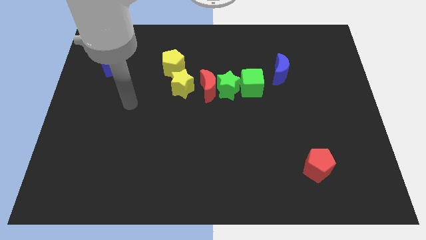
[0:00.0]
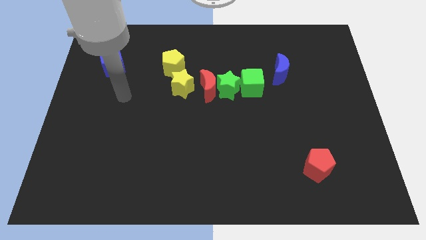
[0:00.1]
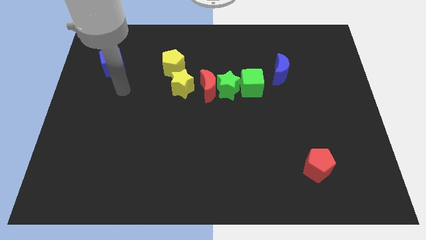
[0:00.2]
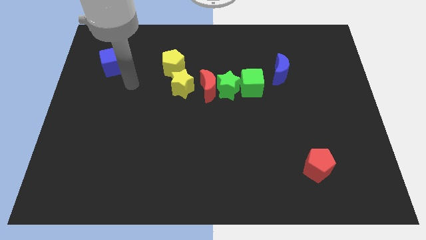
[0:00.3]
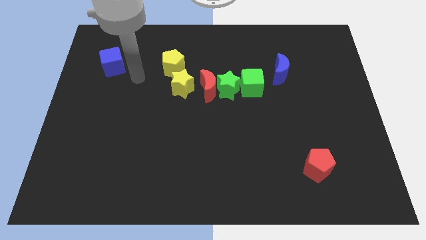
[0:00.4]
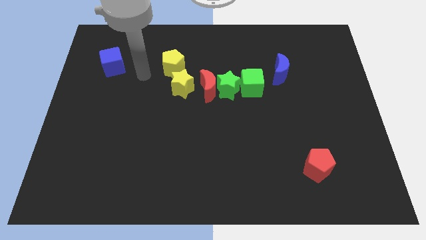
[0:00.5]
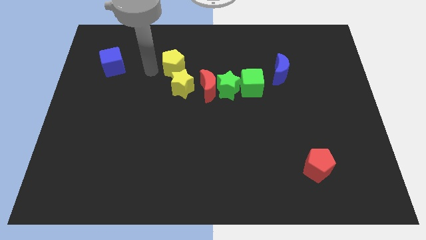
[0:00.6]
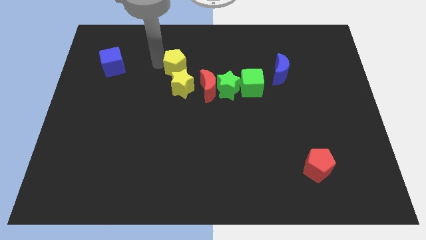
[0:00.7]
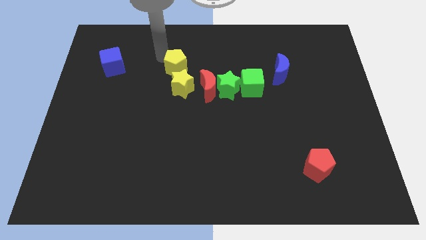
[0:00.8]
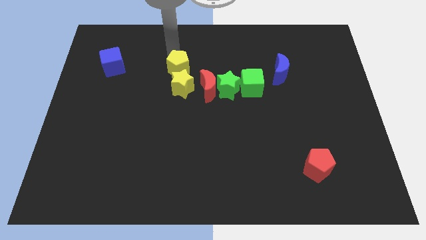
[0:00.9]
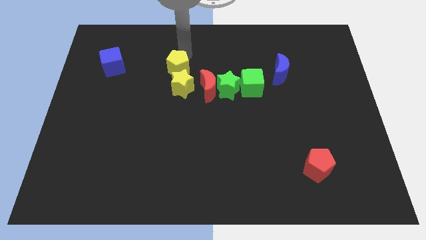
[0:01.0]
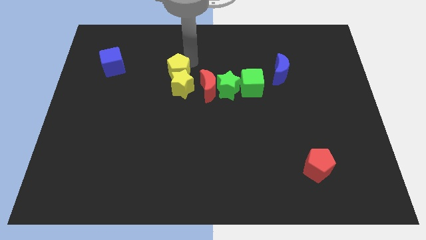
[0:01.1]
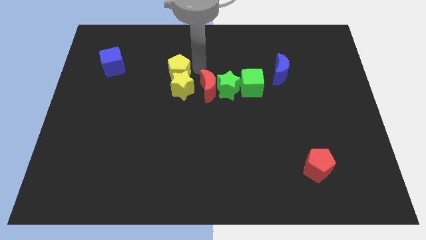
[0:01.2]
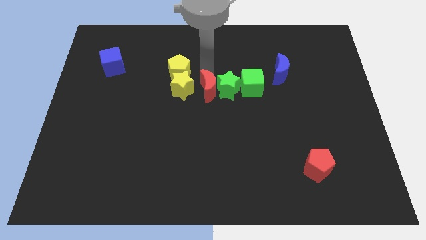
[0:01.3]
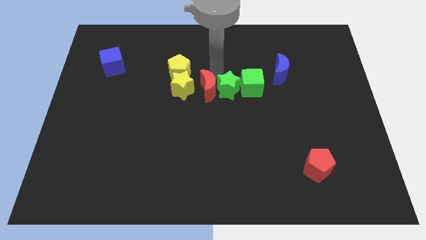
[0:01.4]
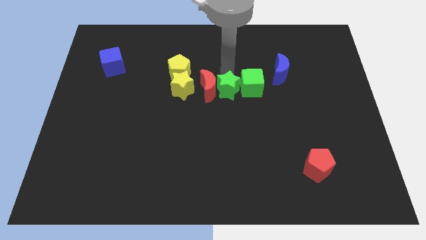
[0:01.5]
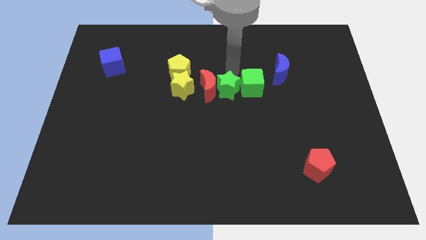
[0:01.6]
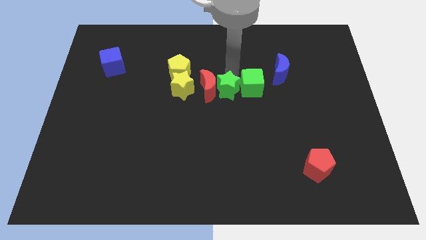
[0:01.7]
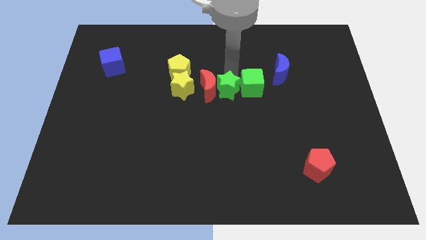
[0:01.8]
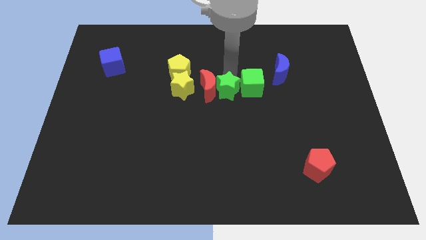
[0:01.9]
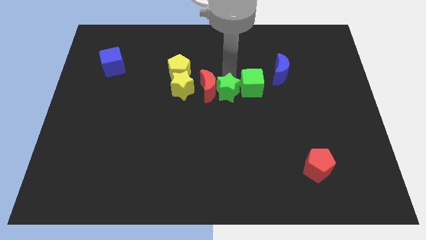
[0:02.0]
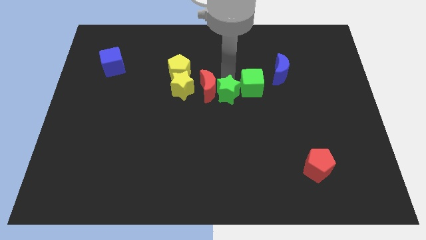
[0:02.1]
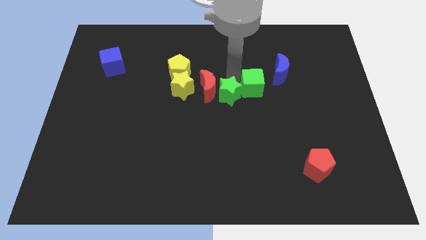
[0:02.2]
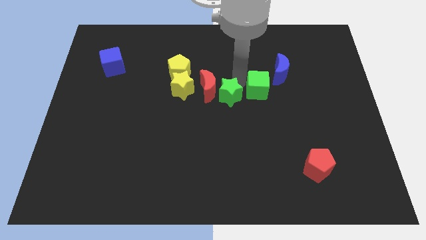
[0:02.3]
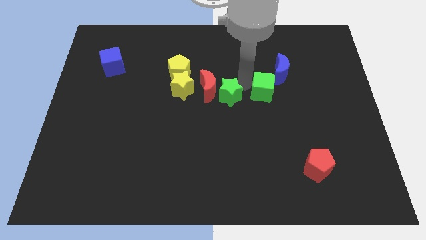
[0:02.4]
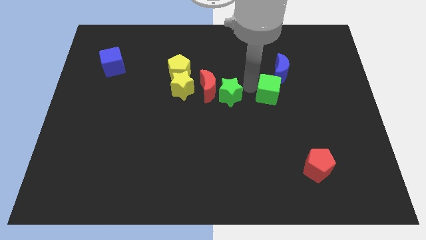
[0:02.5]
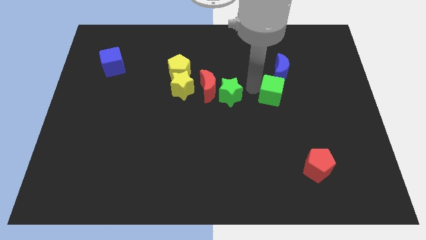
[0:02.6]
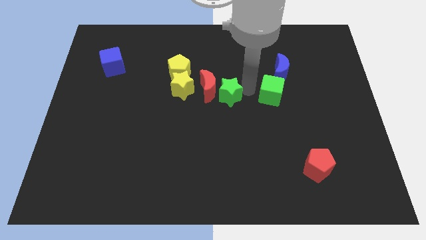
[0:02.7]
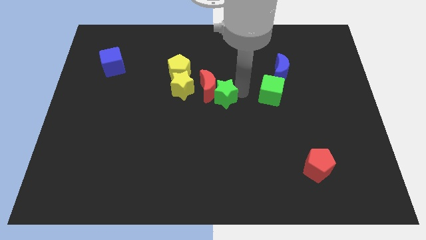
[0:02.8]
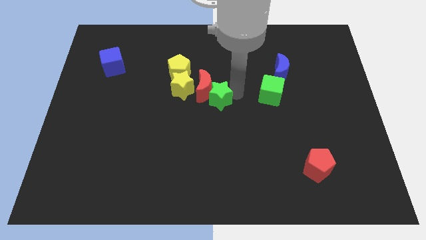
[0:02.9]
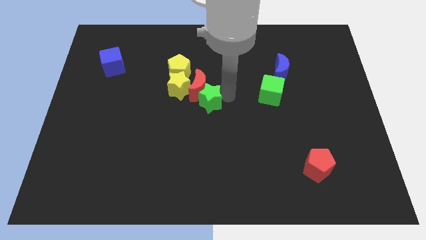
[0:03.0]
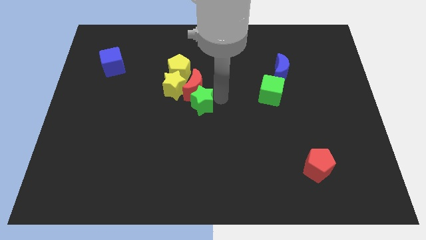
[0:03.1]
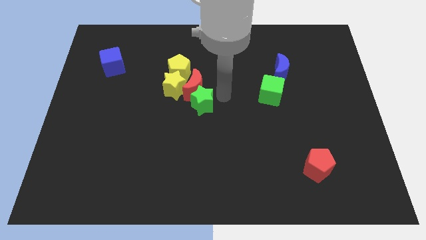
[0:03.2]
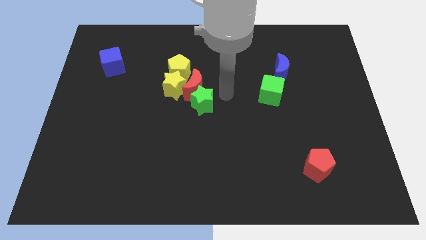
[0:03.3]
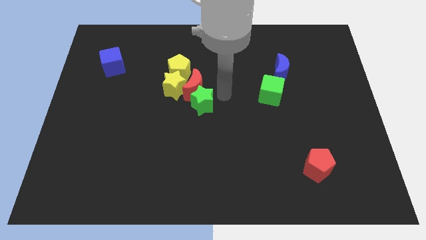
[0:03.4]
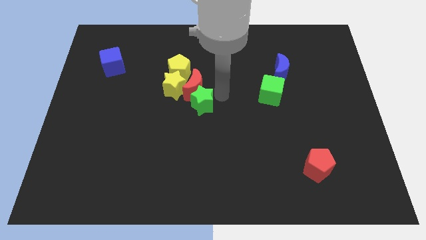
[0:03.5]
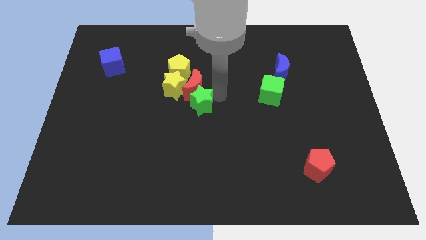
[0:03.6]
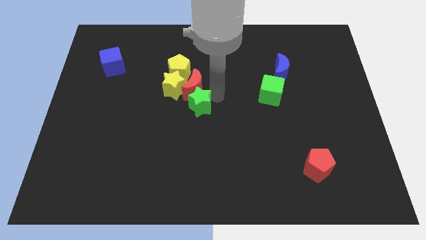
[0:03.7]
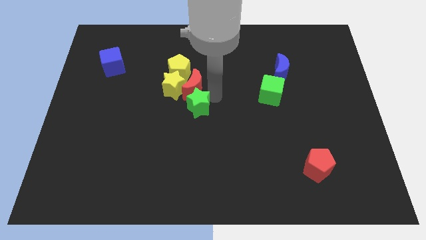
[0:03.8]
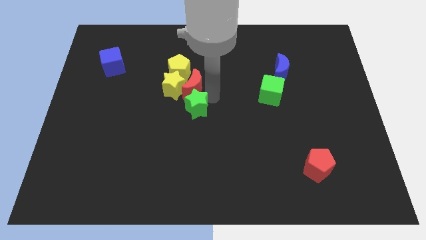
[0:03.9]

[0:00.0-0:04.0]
pull the green star apart from the red moon and green cube

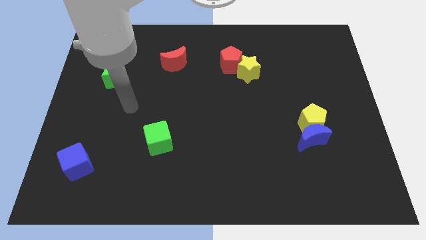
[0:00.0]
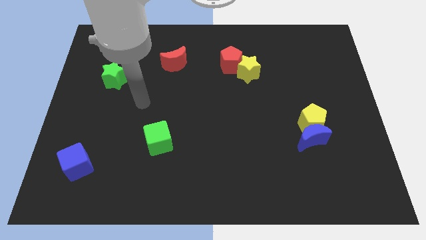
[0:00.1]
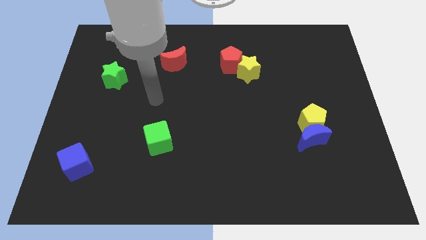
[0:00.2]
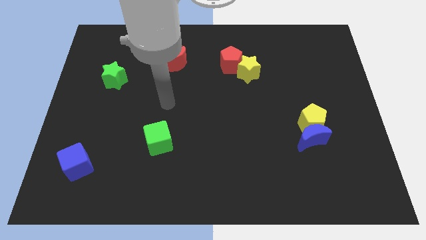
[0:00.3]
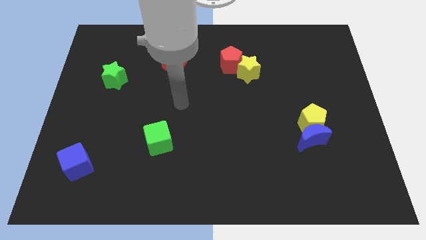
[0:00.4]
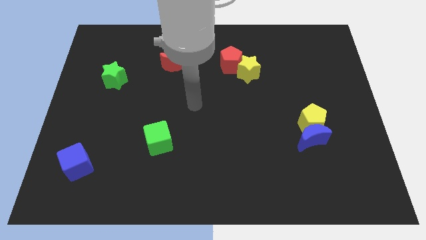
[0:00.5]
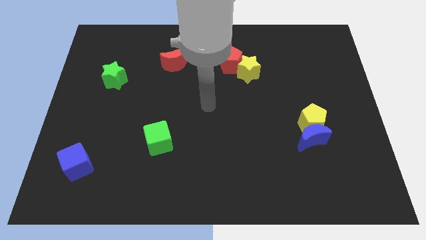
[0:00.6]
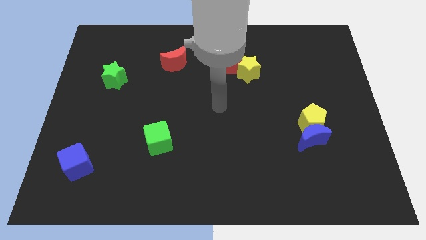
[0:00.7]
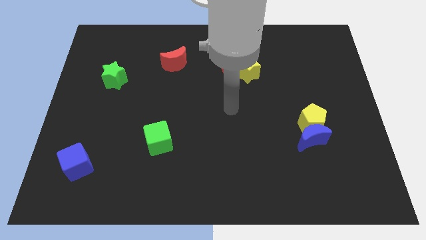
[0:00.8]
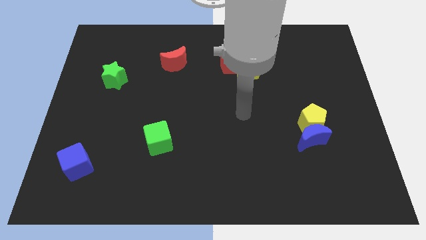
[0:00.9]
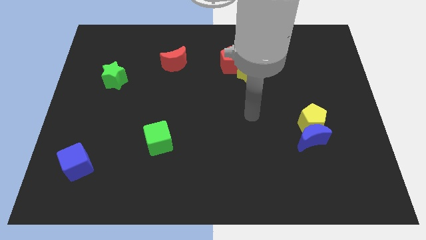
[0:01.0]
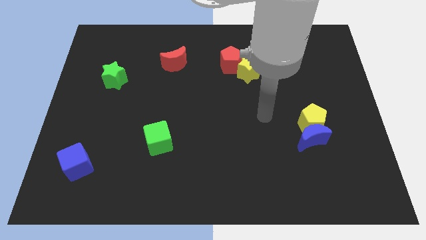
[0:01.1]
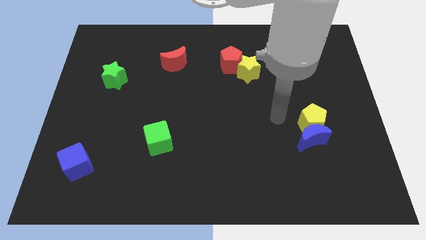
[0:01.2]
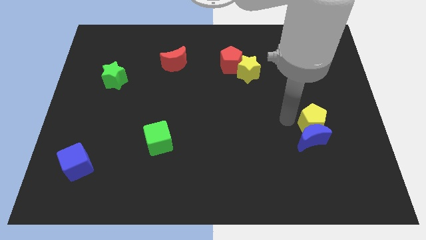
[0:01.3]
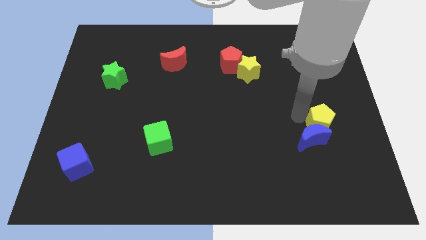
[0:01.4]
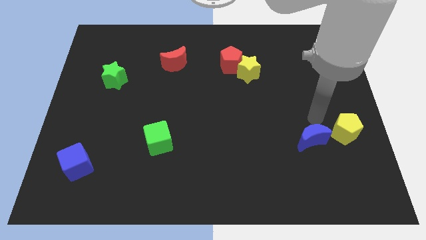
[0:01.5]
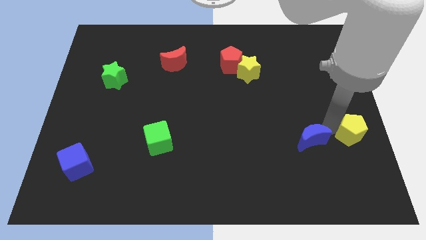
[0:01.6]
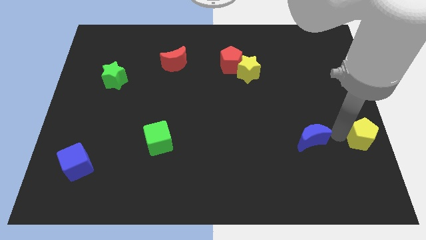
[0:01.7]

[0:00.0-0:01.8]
separate the blue moon from the yellow pentagon

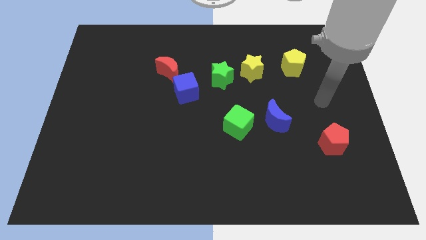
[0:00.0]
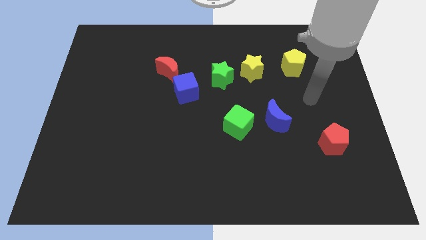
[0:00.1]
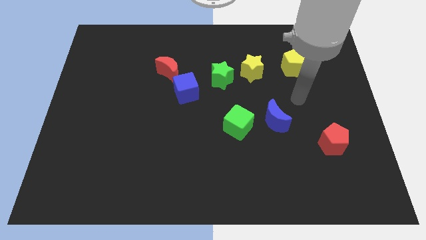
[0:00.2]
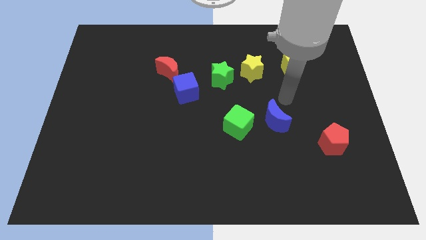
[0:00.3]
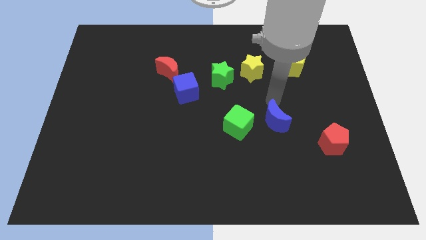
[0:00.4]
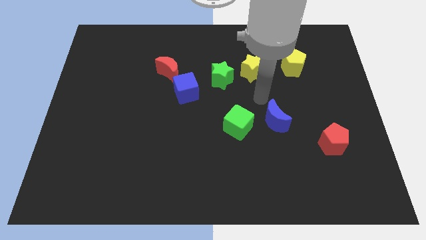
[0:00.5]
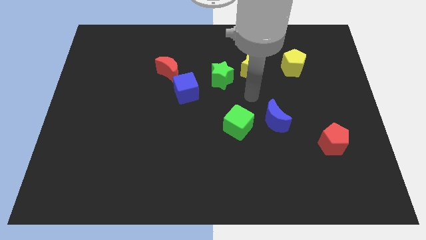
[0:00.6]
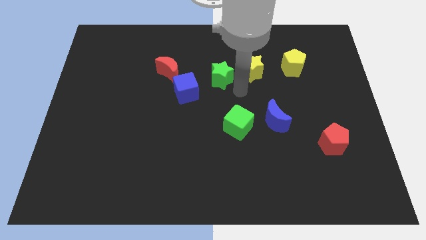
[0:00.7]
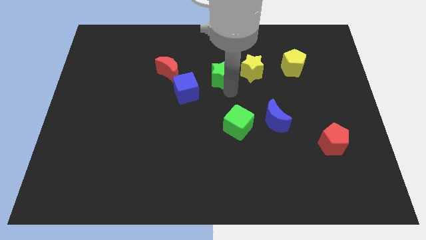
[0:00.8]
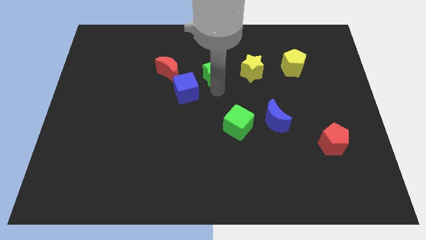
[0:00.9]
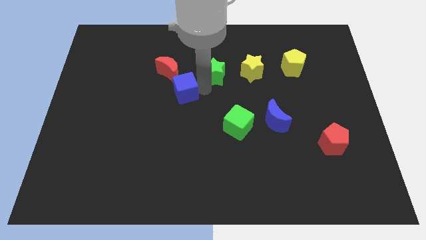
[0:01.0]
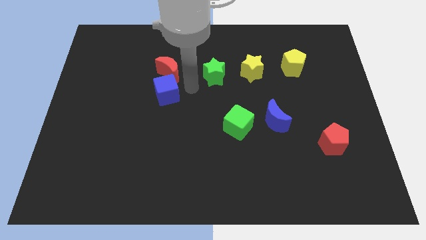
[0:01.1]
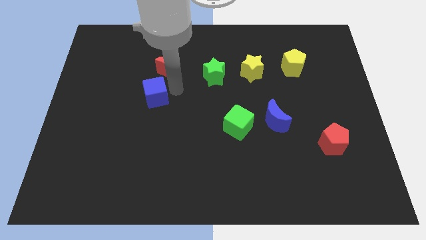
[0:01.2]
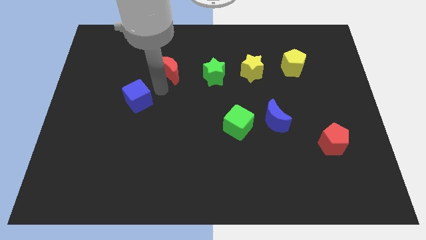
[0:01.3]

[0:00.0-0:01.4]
separate the red moon from the blue cube

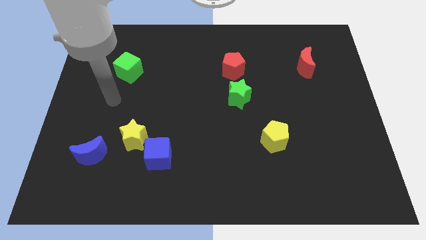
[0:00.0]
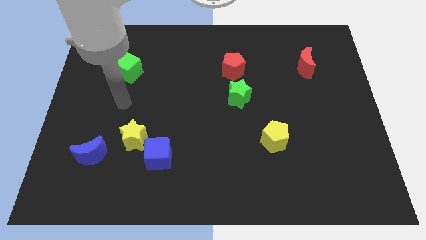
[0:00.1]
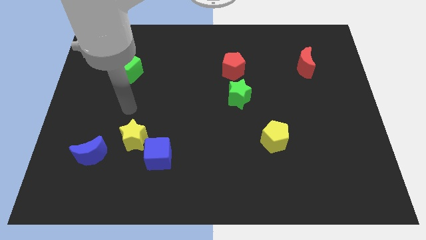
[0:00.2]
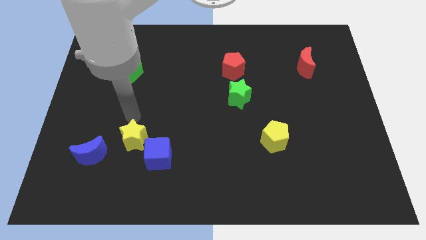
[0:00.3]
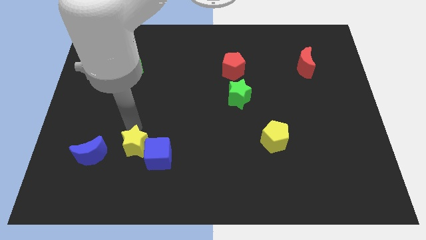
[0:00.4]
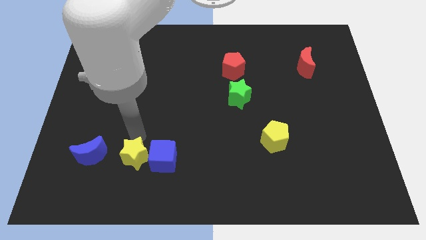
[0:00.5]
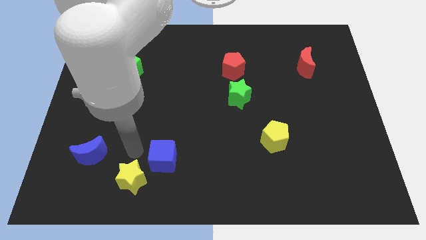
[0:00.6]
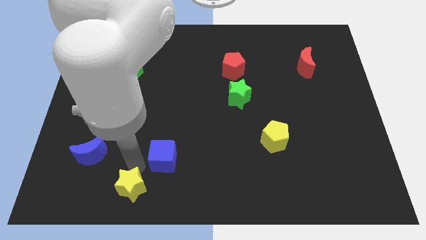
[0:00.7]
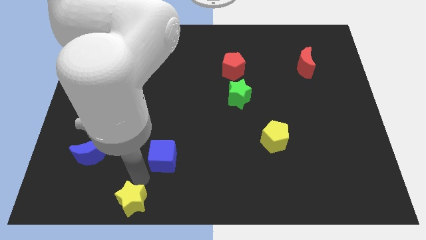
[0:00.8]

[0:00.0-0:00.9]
separate the blue cube from the yellow star

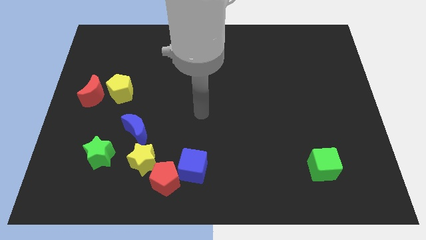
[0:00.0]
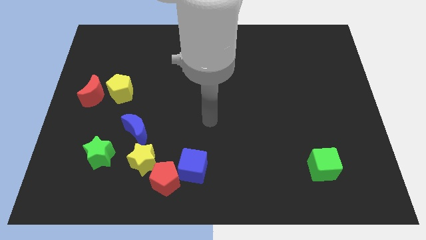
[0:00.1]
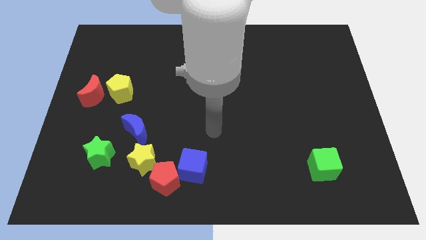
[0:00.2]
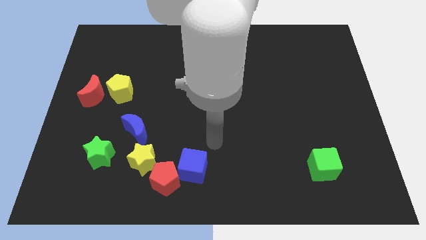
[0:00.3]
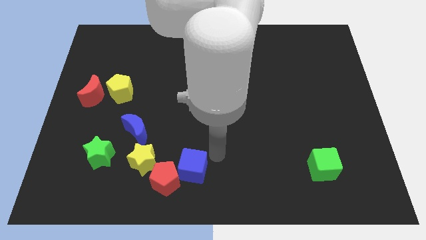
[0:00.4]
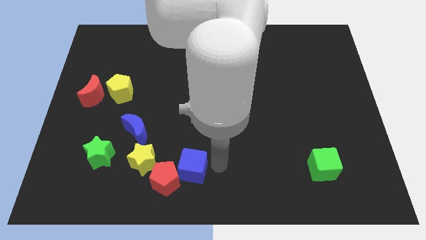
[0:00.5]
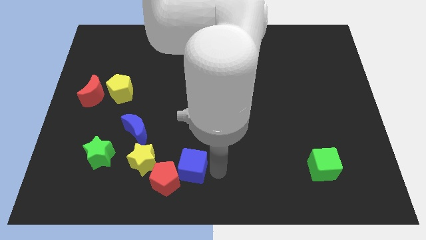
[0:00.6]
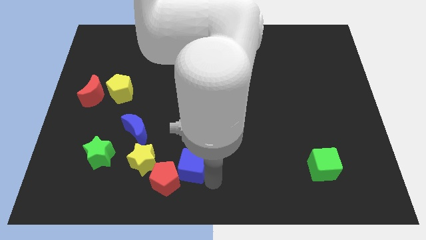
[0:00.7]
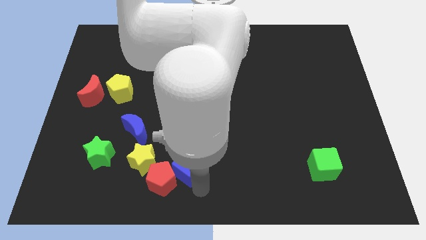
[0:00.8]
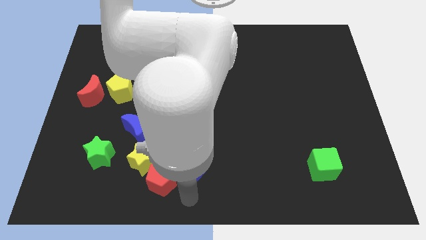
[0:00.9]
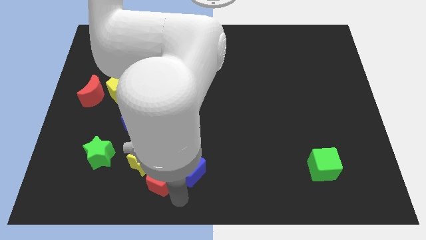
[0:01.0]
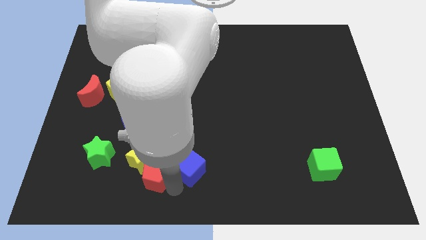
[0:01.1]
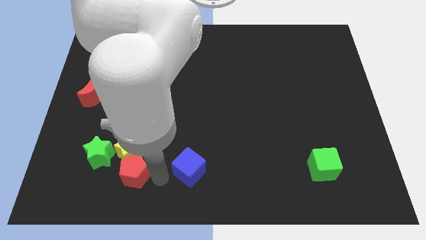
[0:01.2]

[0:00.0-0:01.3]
separate the blue cube from the red pentagon
